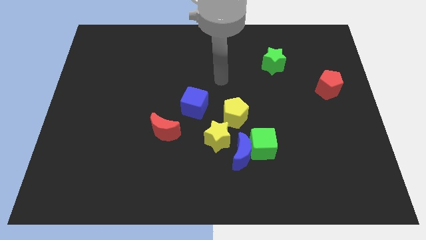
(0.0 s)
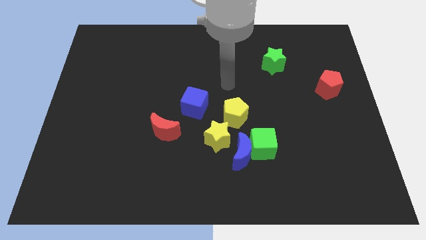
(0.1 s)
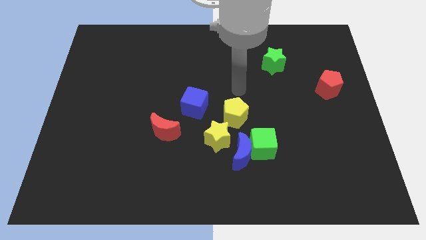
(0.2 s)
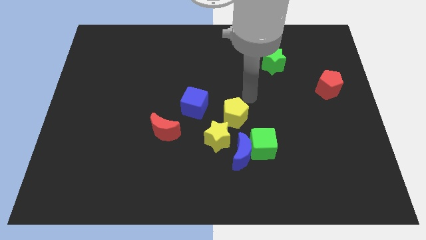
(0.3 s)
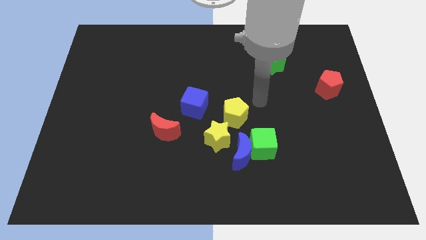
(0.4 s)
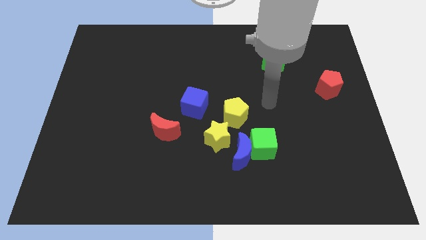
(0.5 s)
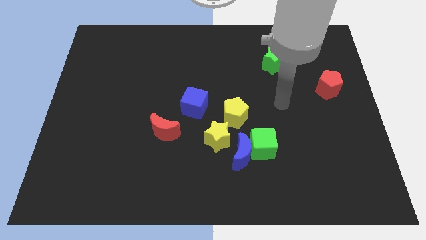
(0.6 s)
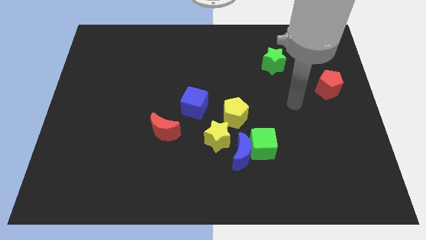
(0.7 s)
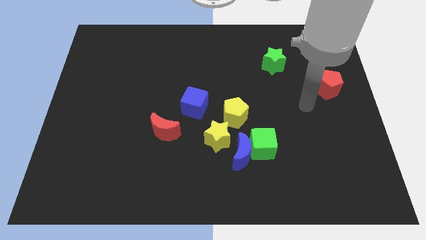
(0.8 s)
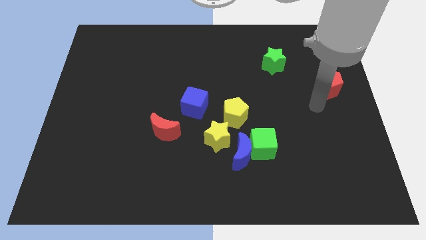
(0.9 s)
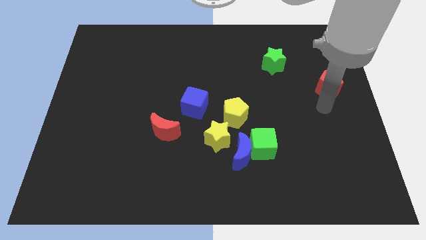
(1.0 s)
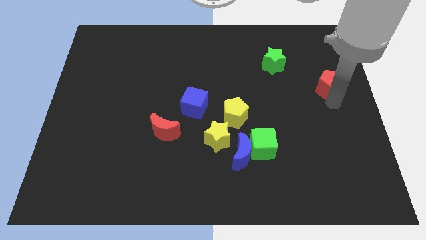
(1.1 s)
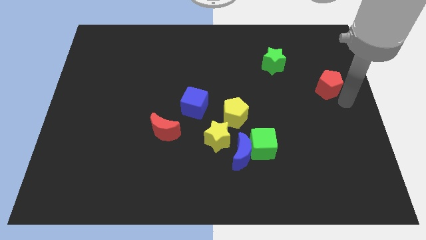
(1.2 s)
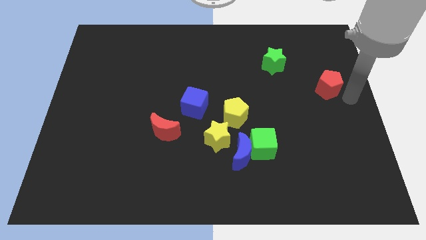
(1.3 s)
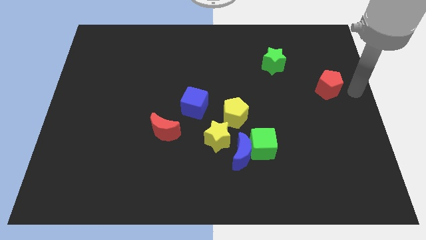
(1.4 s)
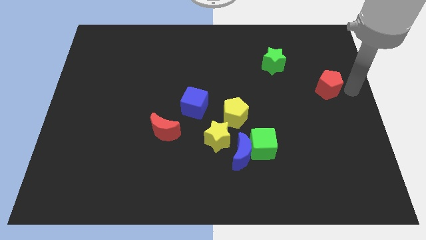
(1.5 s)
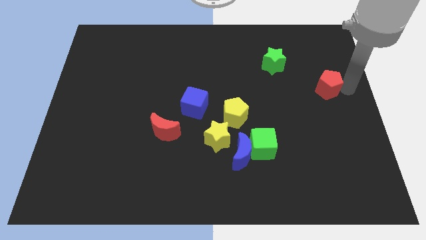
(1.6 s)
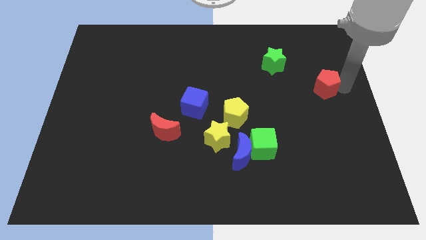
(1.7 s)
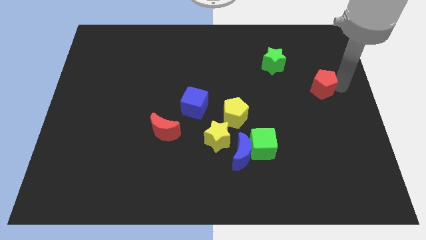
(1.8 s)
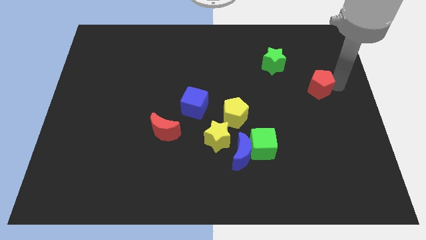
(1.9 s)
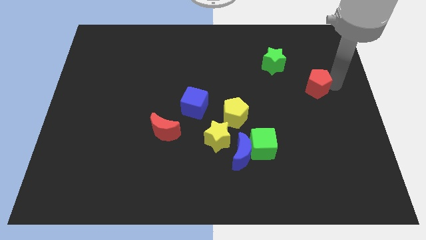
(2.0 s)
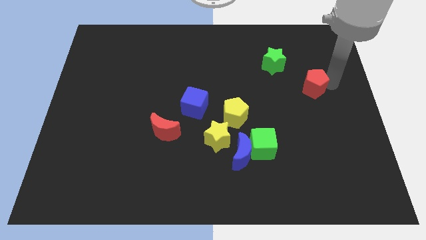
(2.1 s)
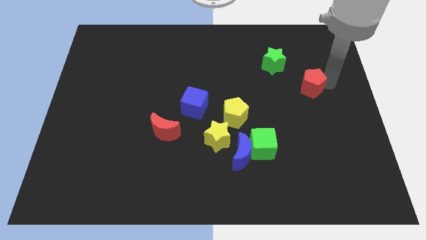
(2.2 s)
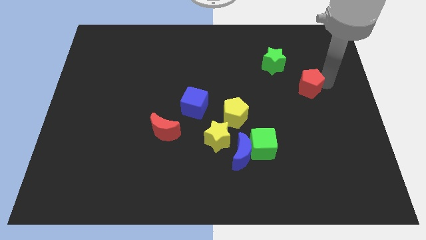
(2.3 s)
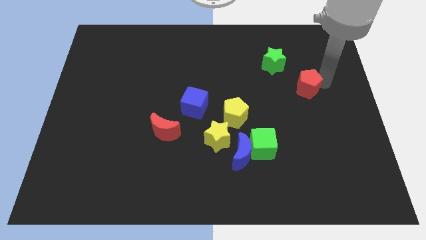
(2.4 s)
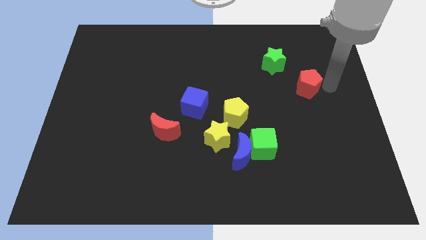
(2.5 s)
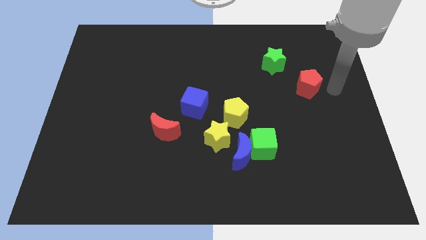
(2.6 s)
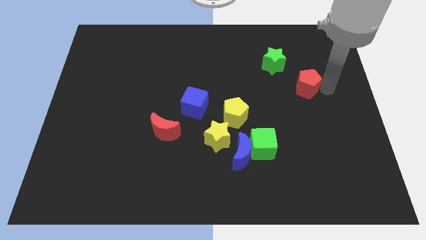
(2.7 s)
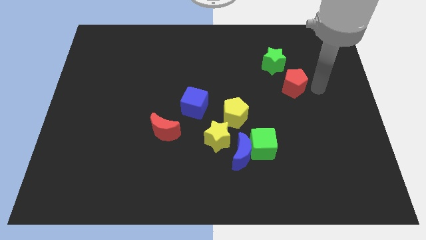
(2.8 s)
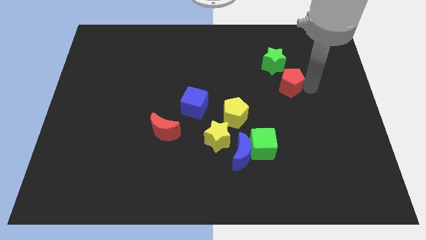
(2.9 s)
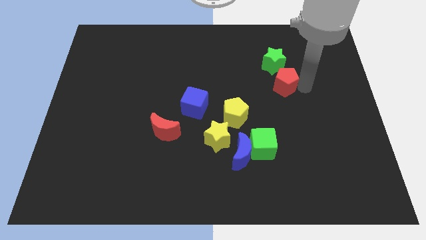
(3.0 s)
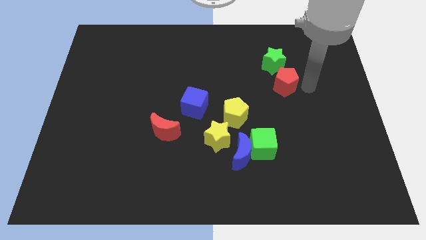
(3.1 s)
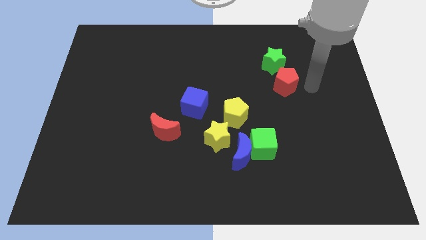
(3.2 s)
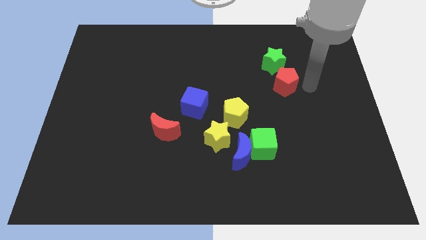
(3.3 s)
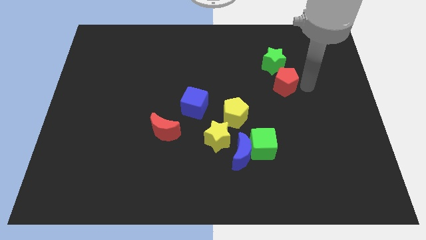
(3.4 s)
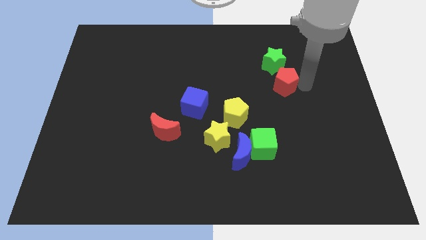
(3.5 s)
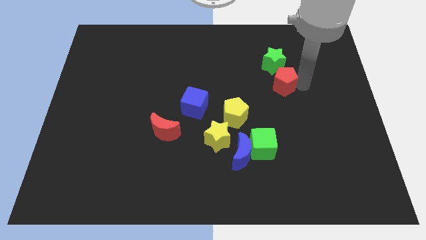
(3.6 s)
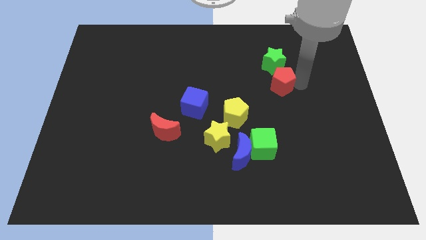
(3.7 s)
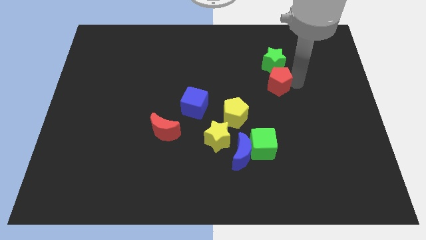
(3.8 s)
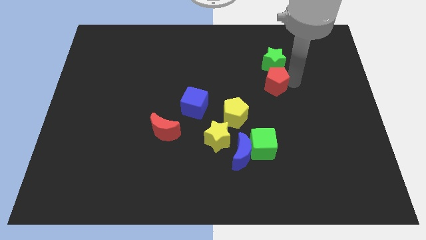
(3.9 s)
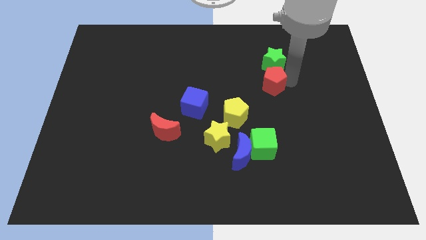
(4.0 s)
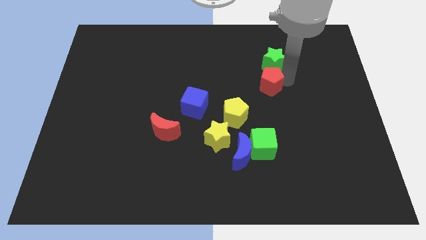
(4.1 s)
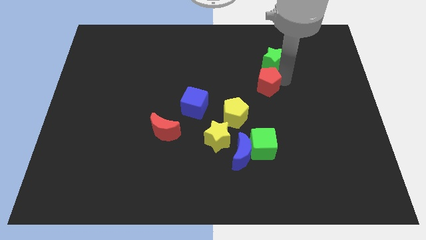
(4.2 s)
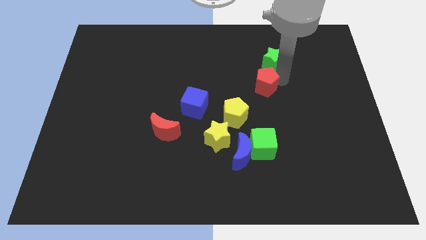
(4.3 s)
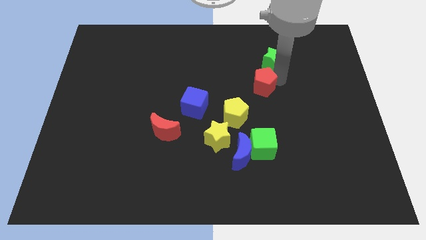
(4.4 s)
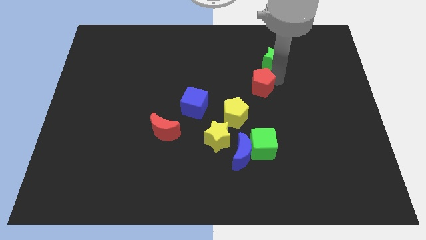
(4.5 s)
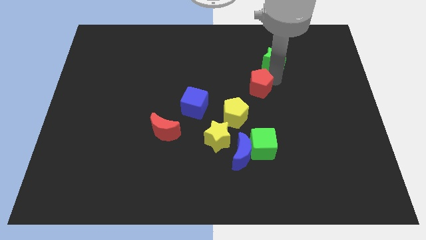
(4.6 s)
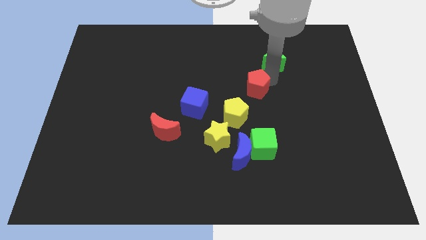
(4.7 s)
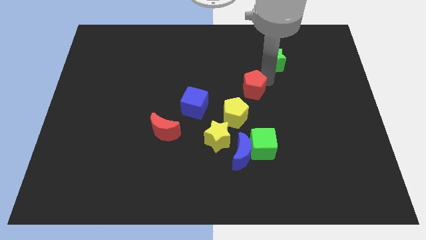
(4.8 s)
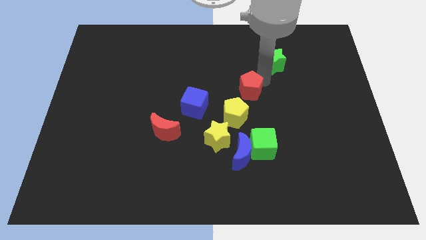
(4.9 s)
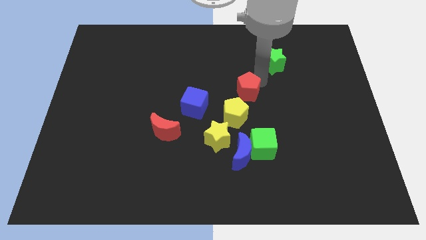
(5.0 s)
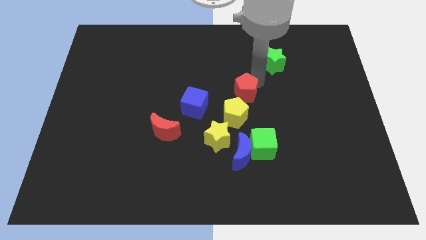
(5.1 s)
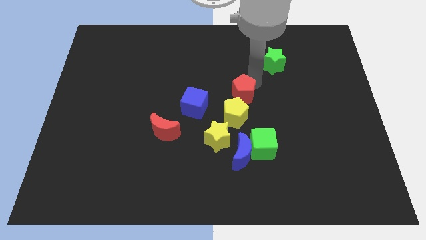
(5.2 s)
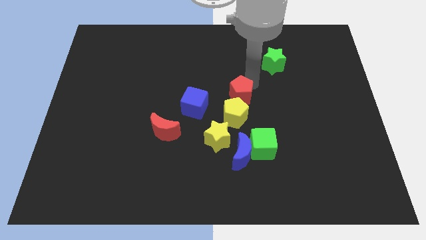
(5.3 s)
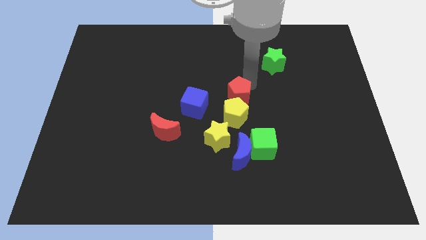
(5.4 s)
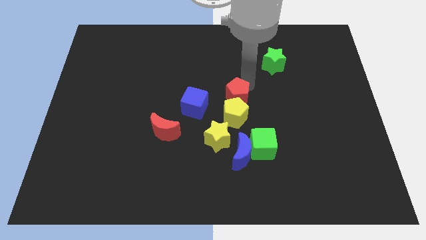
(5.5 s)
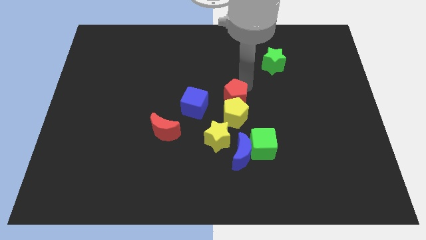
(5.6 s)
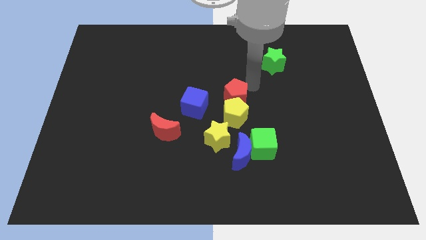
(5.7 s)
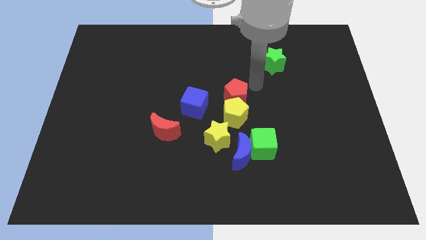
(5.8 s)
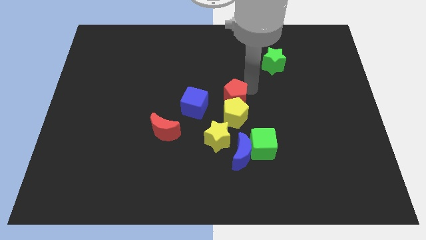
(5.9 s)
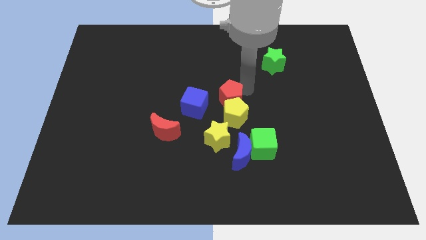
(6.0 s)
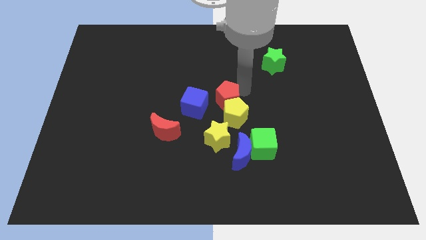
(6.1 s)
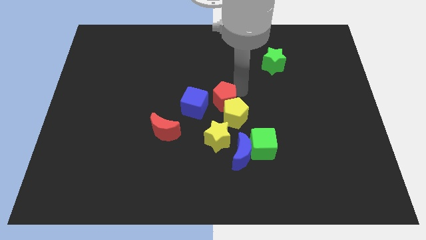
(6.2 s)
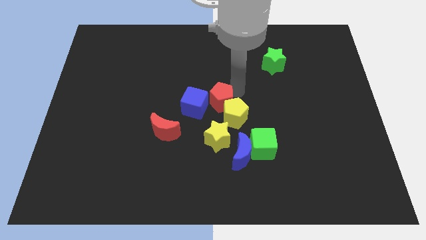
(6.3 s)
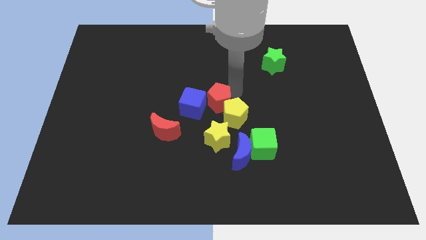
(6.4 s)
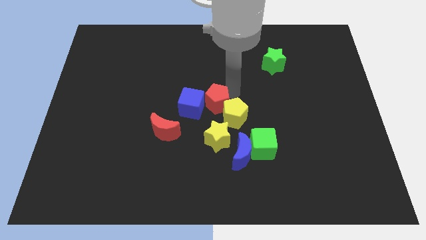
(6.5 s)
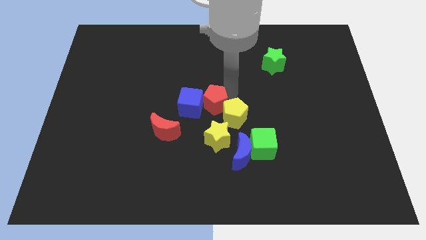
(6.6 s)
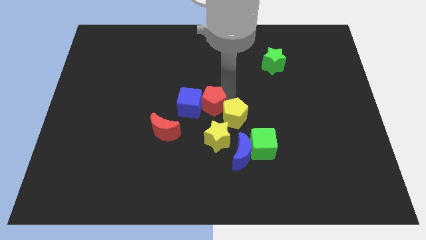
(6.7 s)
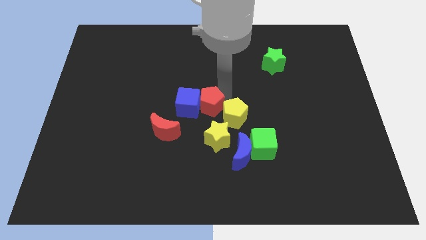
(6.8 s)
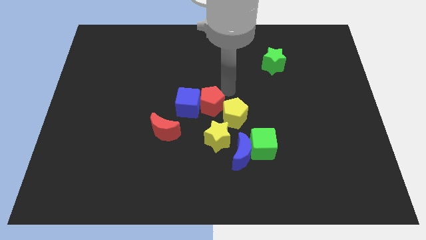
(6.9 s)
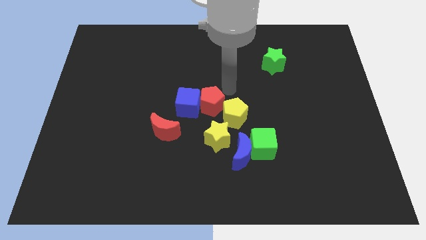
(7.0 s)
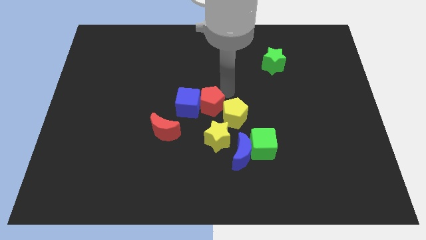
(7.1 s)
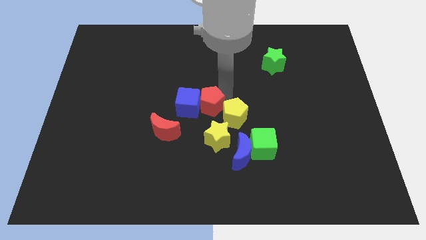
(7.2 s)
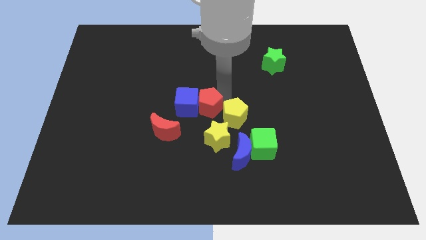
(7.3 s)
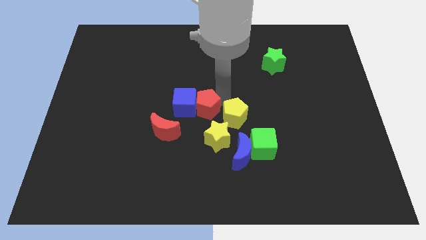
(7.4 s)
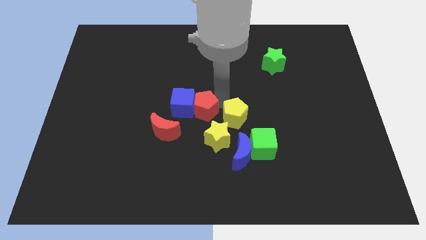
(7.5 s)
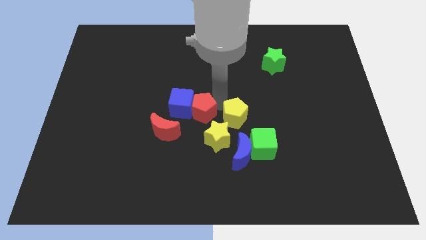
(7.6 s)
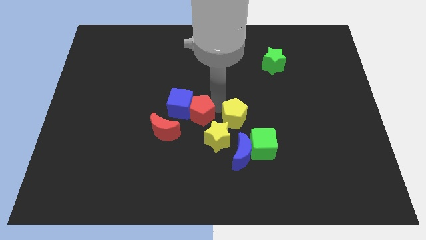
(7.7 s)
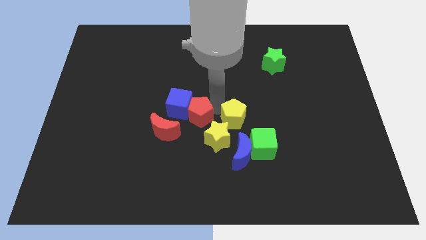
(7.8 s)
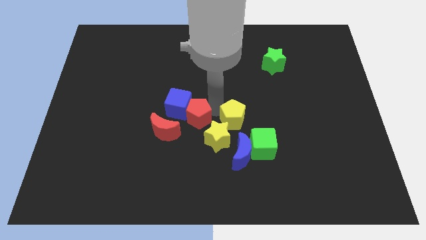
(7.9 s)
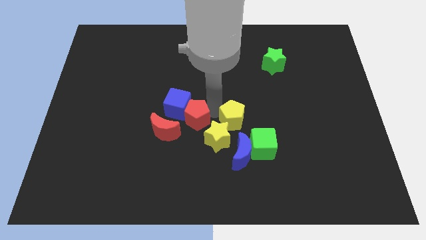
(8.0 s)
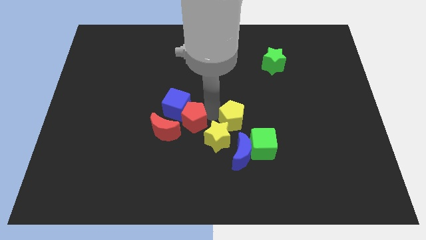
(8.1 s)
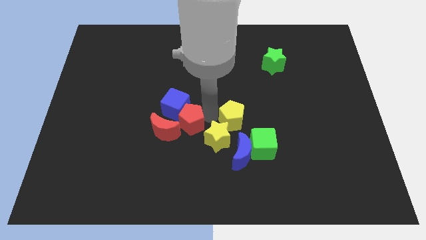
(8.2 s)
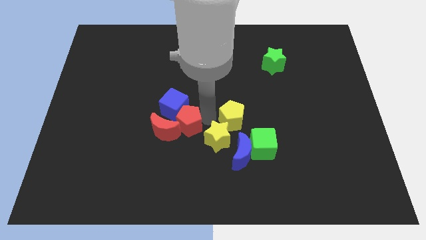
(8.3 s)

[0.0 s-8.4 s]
move the red pentagon next to the red moon
